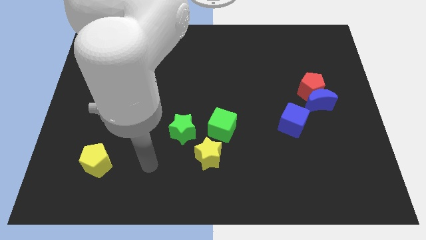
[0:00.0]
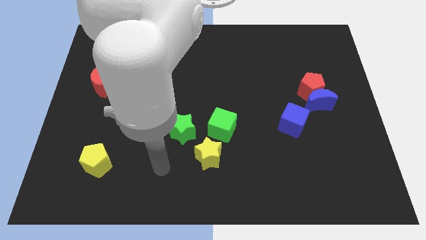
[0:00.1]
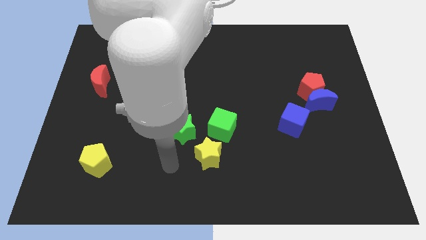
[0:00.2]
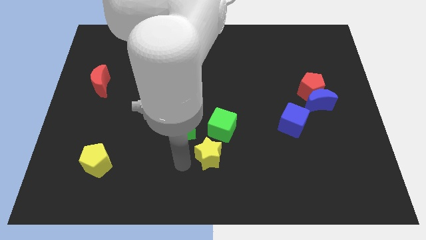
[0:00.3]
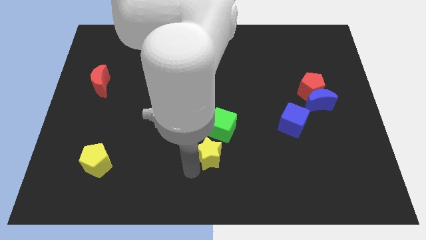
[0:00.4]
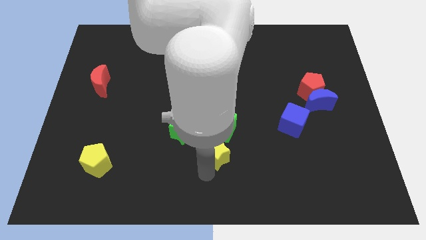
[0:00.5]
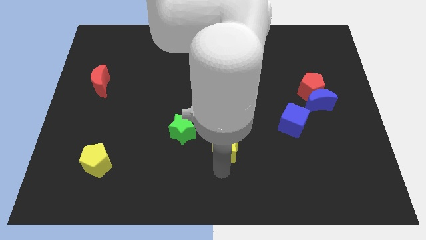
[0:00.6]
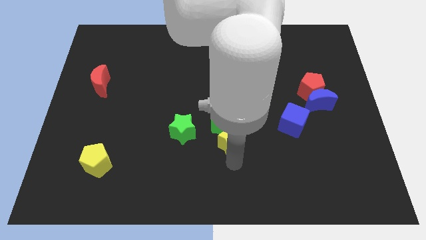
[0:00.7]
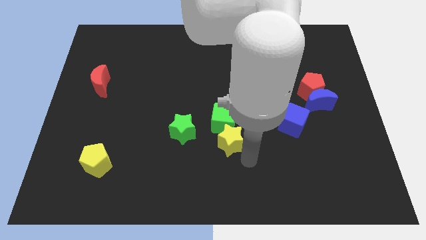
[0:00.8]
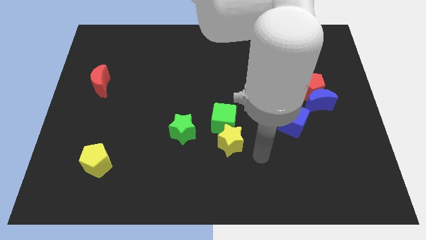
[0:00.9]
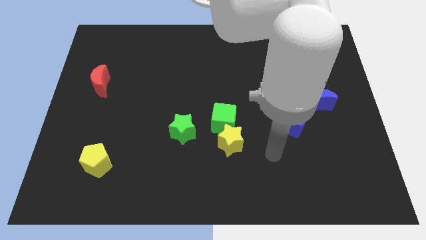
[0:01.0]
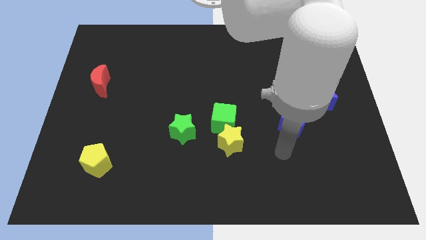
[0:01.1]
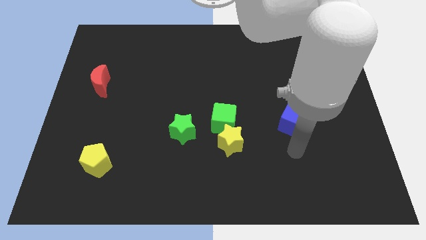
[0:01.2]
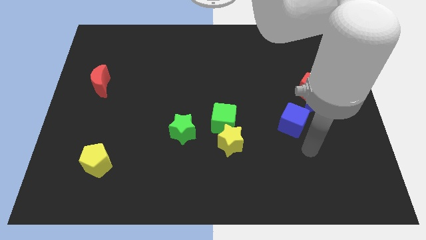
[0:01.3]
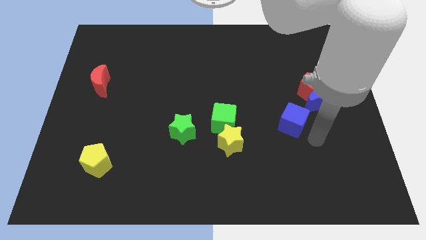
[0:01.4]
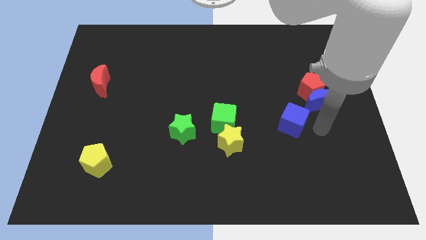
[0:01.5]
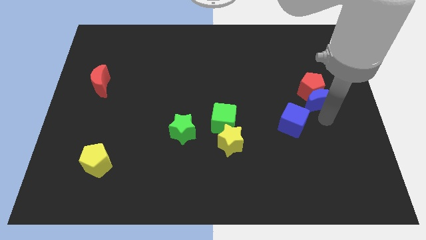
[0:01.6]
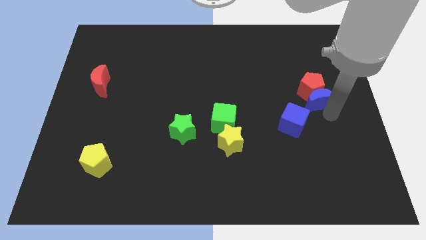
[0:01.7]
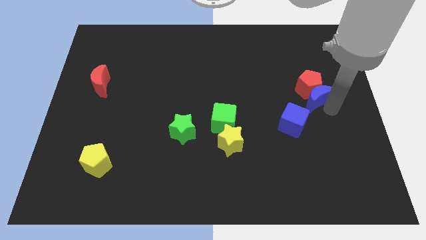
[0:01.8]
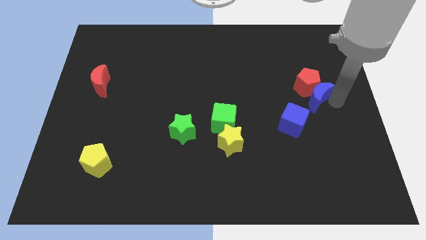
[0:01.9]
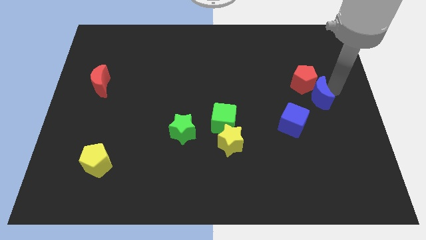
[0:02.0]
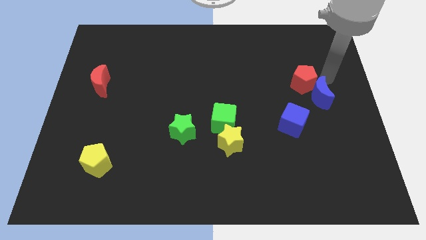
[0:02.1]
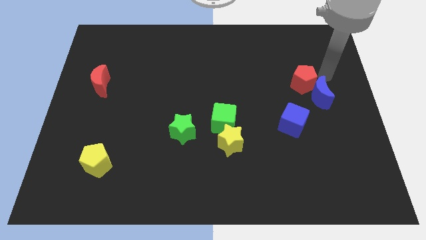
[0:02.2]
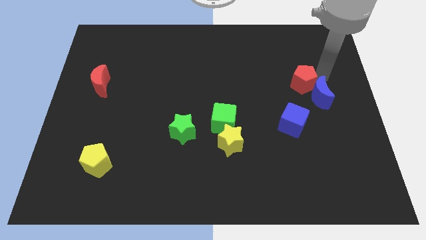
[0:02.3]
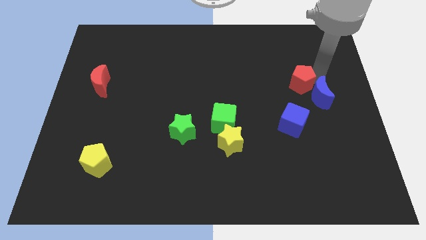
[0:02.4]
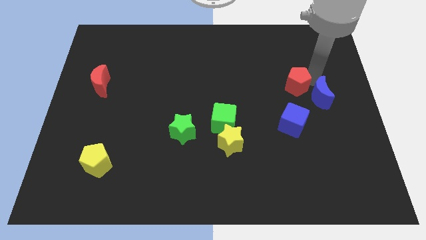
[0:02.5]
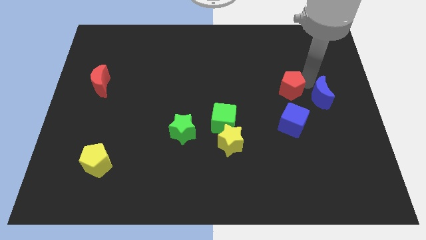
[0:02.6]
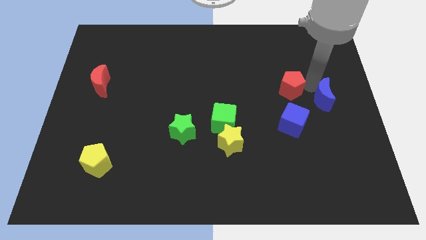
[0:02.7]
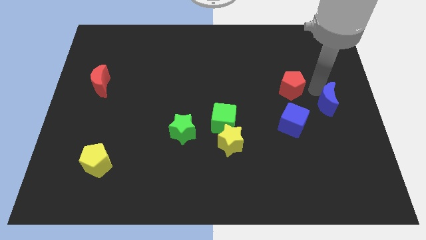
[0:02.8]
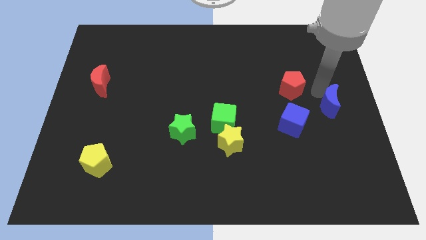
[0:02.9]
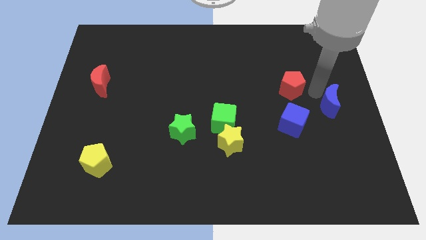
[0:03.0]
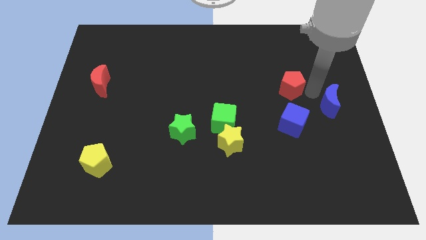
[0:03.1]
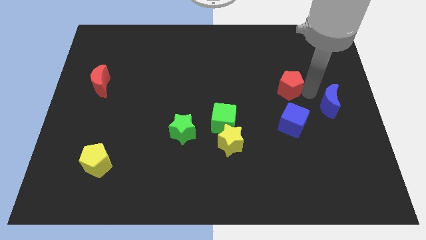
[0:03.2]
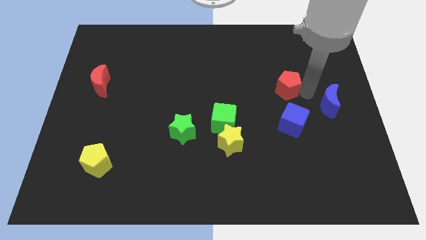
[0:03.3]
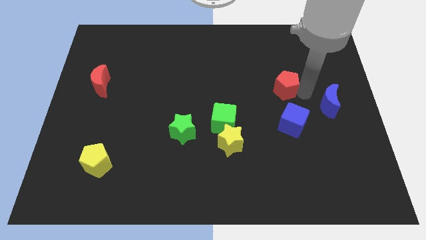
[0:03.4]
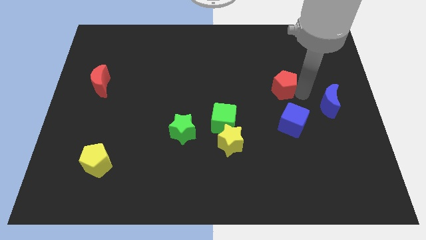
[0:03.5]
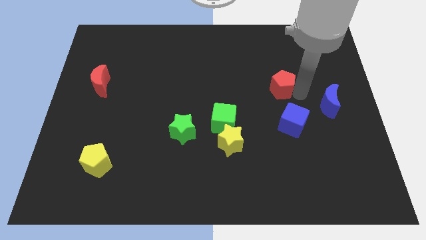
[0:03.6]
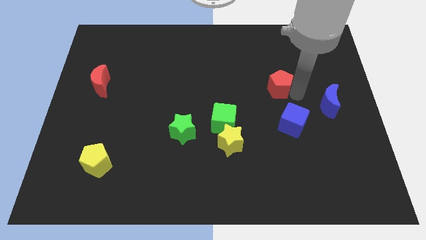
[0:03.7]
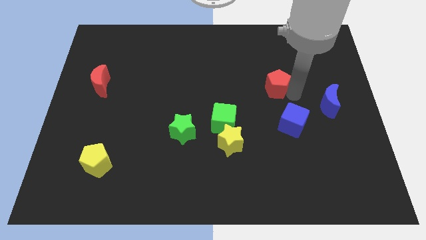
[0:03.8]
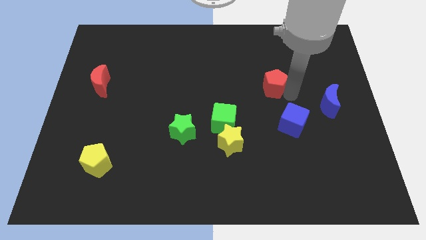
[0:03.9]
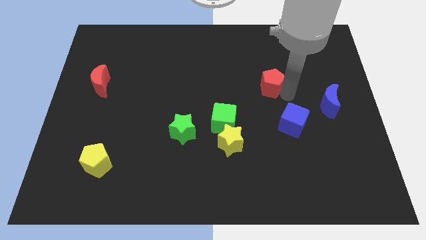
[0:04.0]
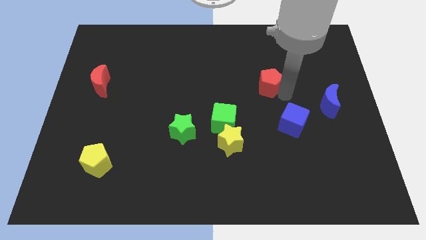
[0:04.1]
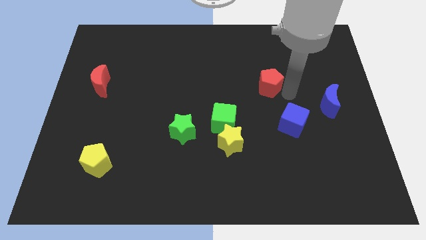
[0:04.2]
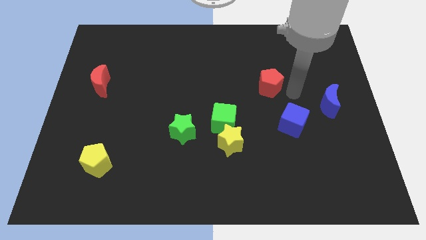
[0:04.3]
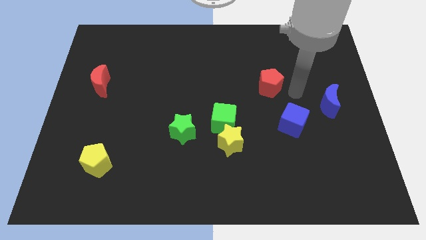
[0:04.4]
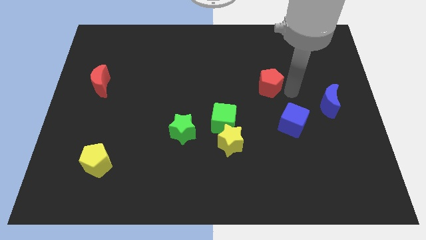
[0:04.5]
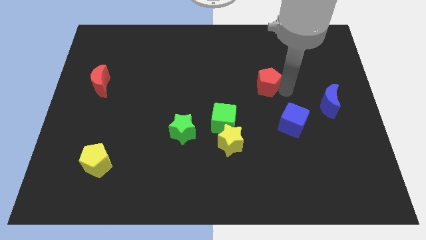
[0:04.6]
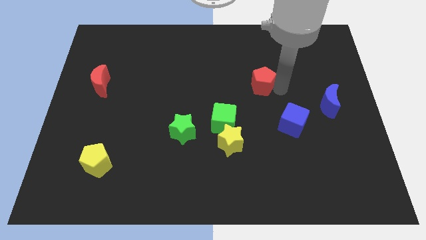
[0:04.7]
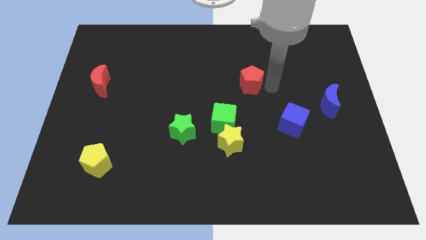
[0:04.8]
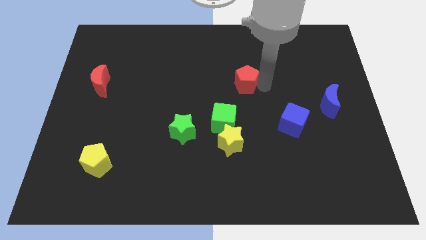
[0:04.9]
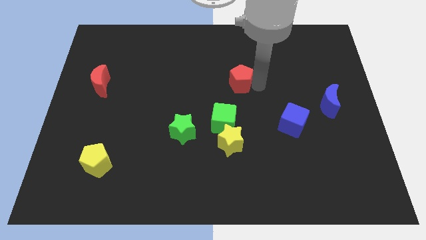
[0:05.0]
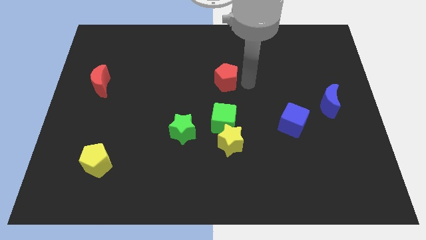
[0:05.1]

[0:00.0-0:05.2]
slide the red pentagon to the left

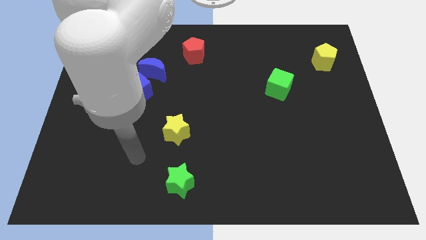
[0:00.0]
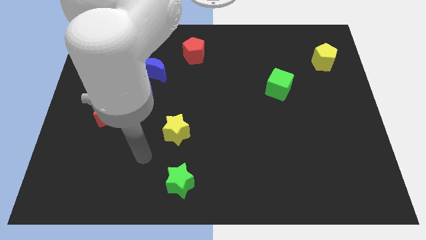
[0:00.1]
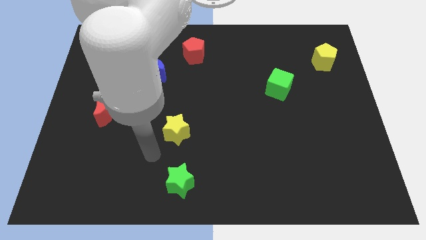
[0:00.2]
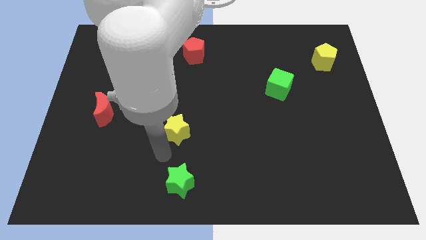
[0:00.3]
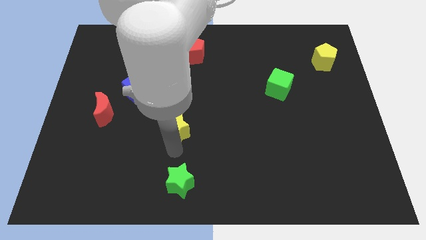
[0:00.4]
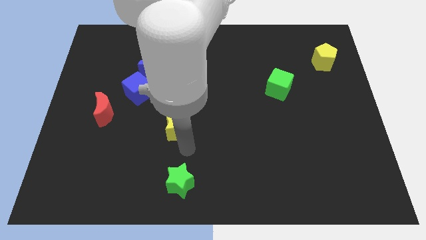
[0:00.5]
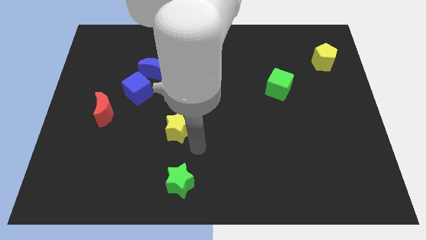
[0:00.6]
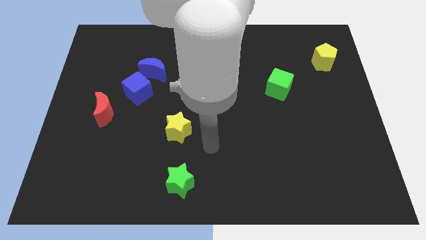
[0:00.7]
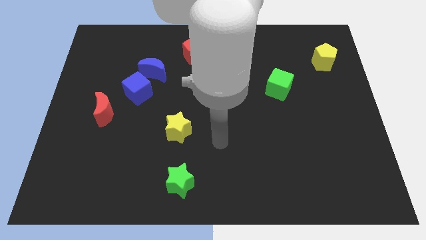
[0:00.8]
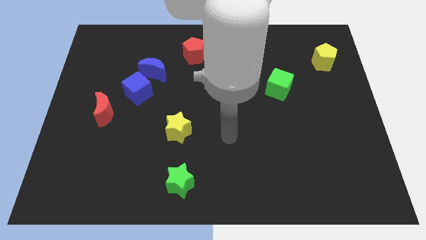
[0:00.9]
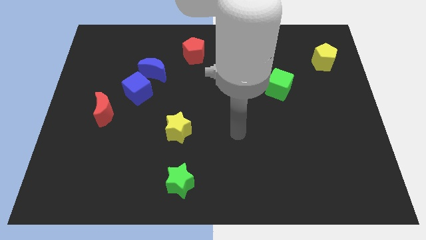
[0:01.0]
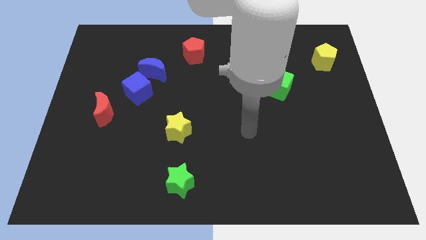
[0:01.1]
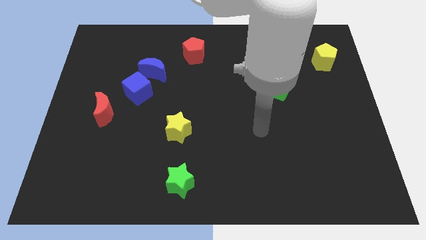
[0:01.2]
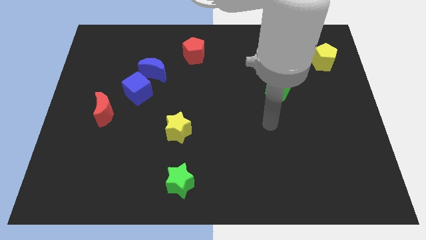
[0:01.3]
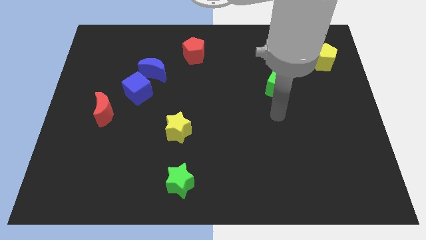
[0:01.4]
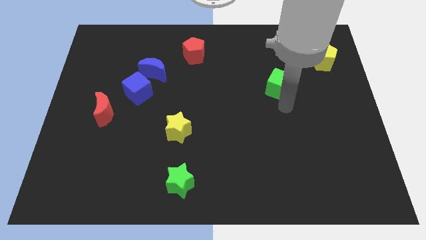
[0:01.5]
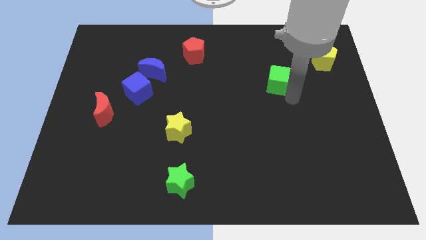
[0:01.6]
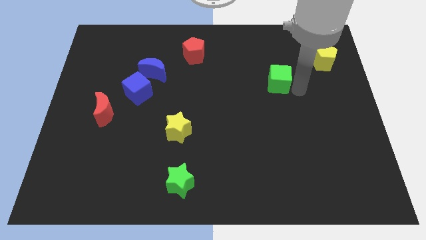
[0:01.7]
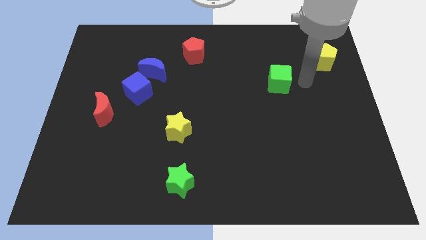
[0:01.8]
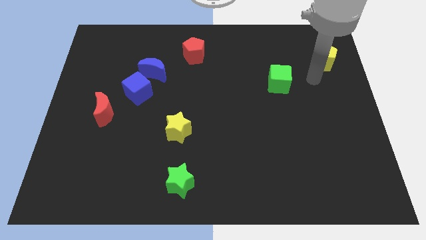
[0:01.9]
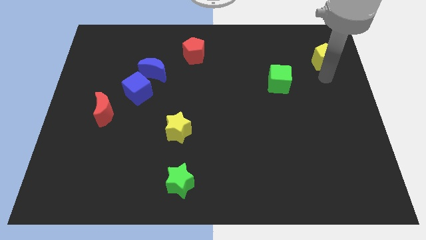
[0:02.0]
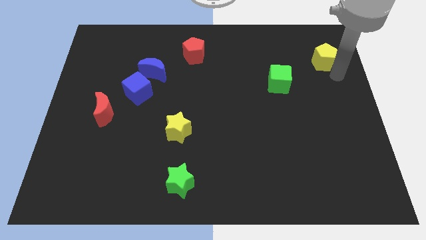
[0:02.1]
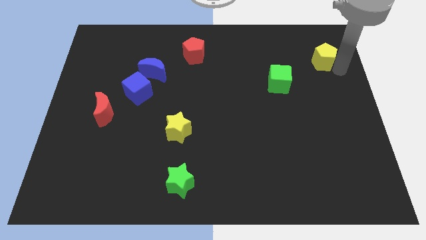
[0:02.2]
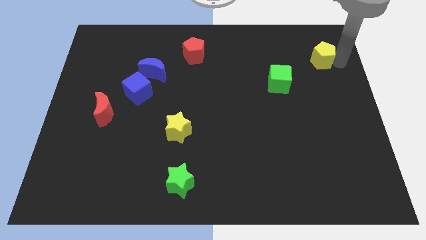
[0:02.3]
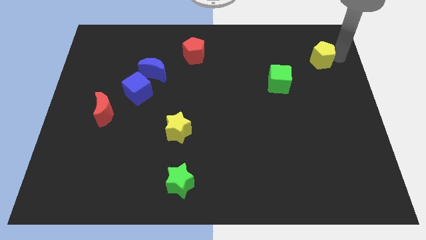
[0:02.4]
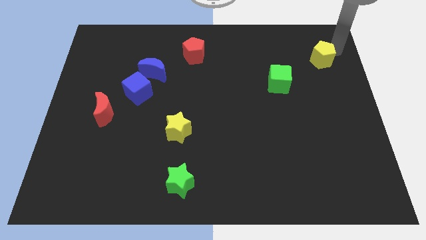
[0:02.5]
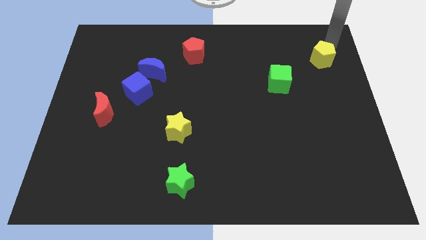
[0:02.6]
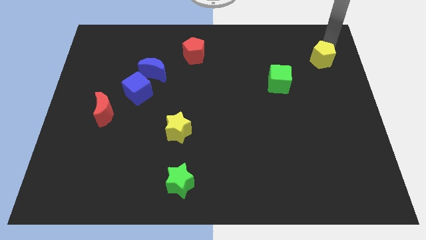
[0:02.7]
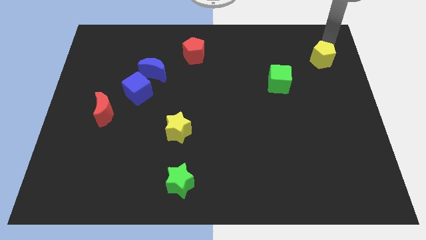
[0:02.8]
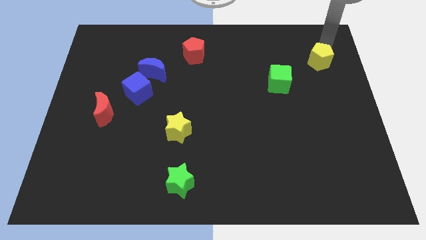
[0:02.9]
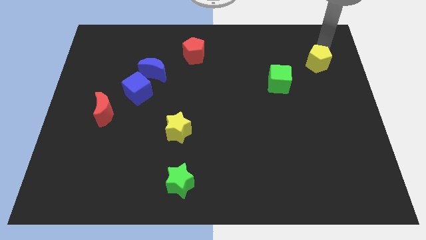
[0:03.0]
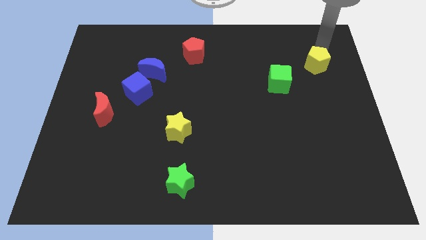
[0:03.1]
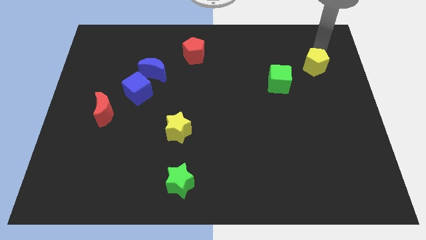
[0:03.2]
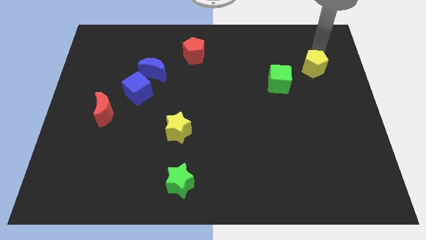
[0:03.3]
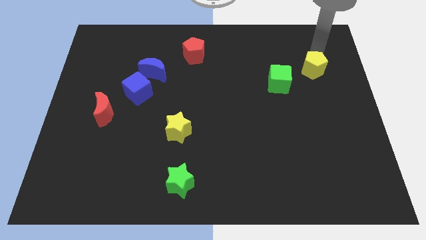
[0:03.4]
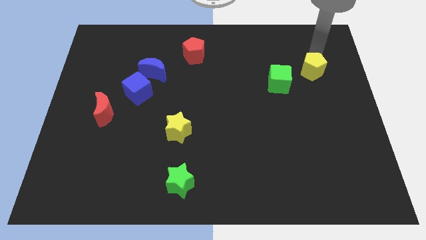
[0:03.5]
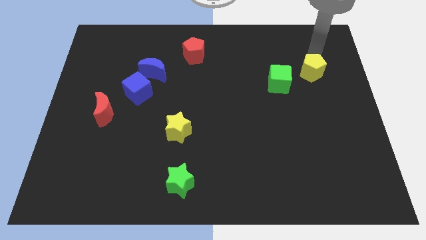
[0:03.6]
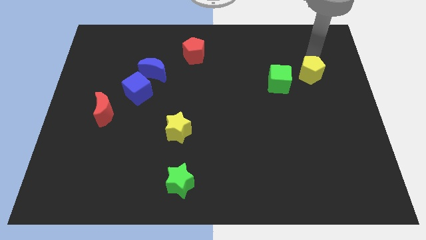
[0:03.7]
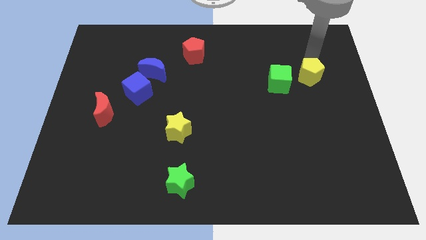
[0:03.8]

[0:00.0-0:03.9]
move the yellow pentagon slightly down and then to the left
